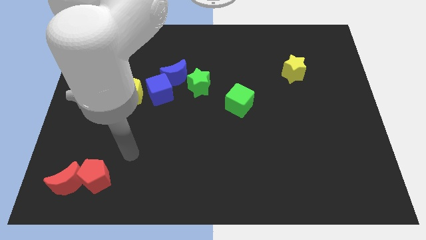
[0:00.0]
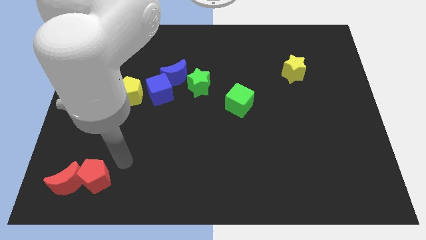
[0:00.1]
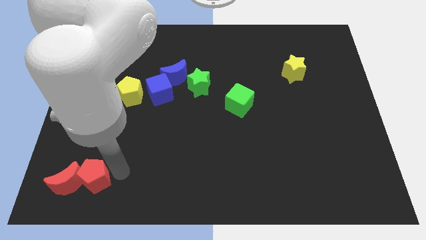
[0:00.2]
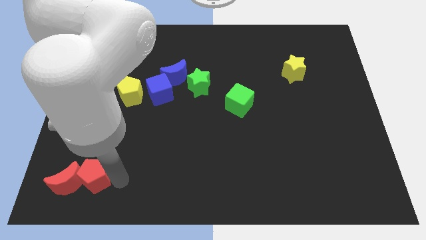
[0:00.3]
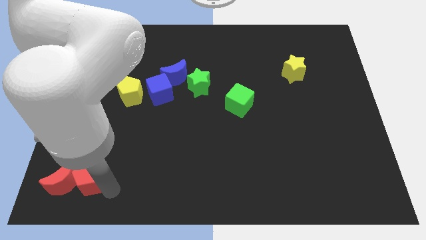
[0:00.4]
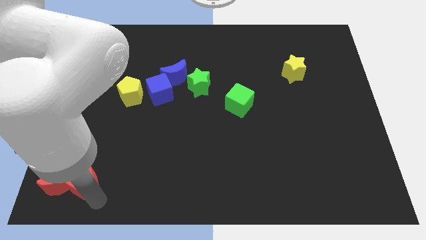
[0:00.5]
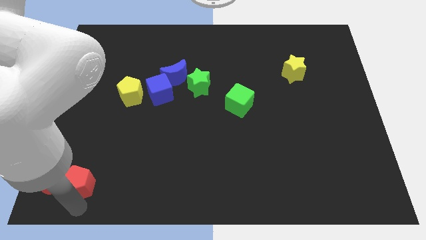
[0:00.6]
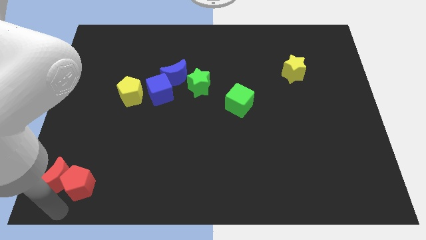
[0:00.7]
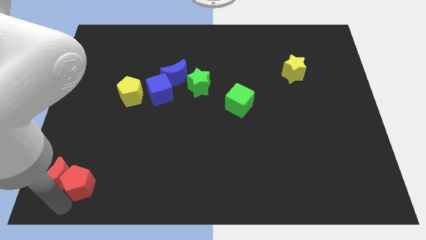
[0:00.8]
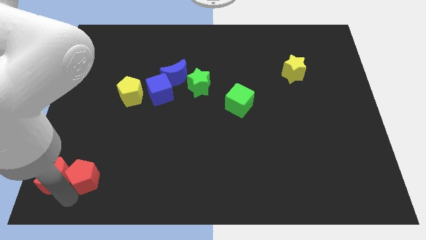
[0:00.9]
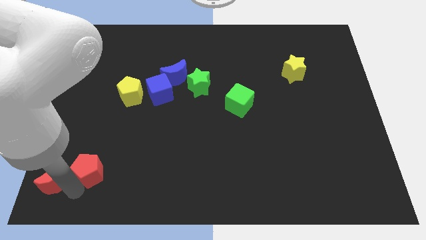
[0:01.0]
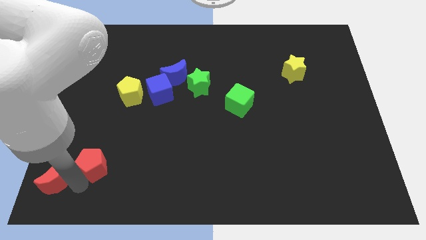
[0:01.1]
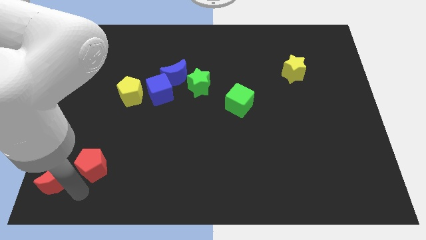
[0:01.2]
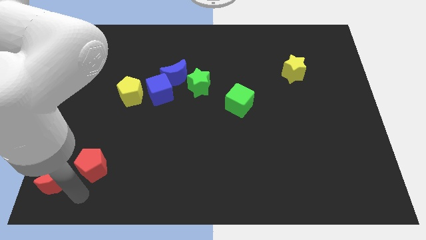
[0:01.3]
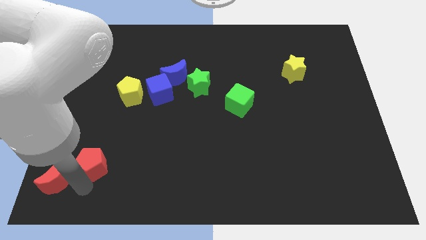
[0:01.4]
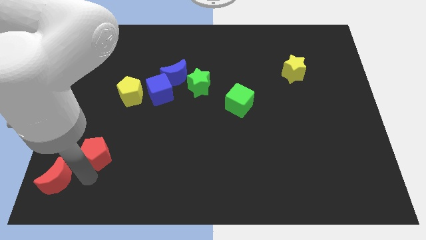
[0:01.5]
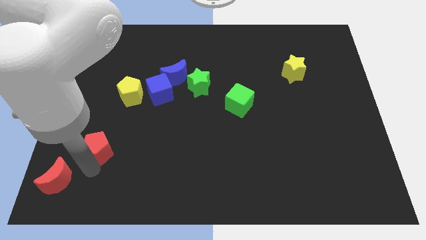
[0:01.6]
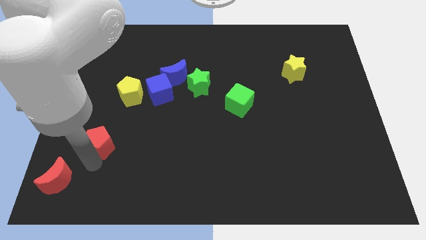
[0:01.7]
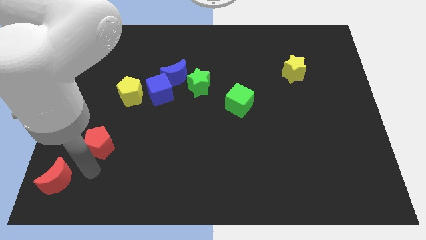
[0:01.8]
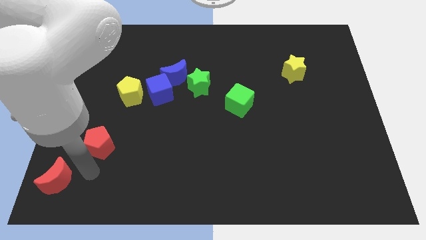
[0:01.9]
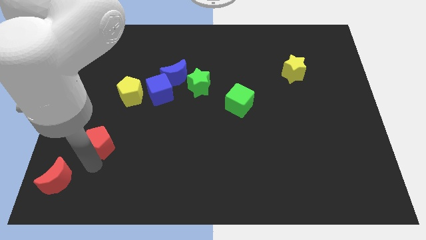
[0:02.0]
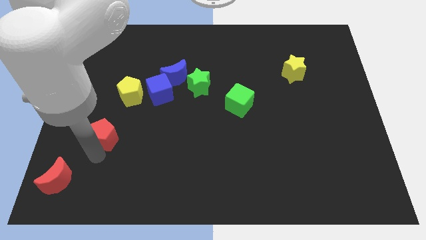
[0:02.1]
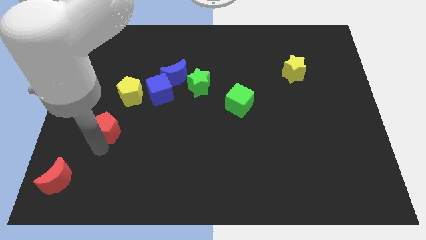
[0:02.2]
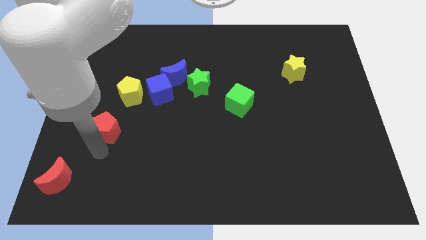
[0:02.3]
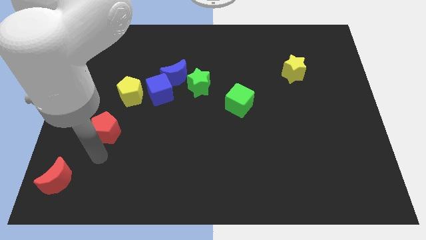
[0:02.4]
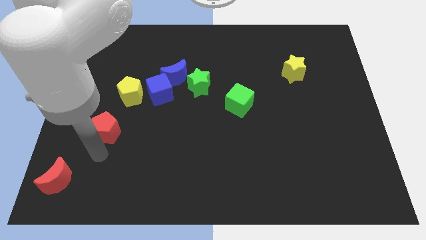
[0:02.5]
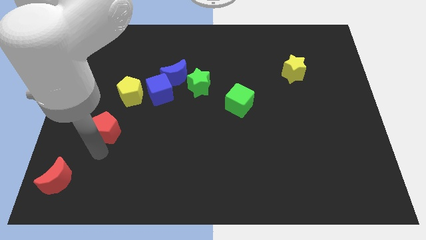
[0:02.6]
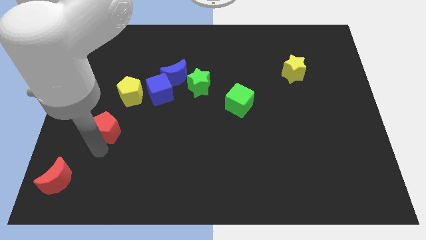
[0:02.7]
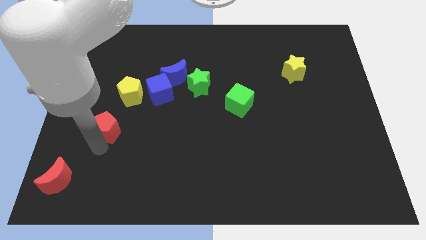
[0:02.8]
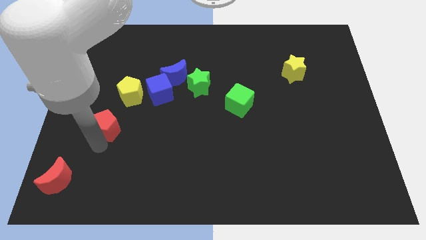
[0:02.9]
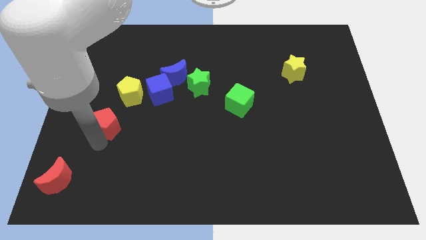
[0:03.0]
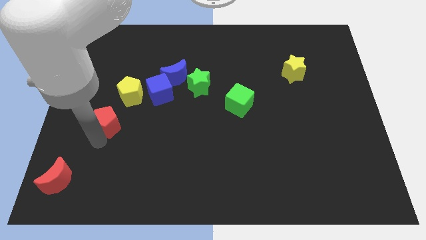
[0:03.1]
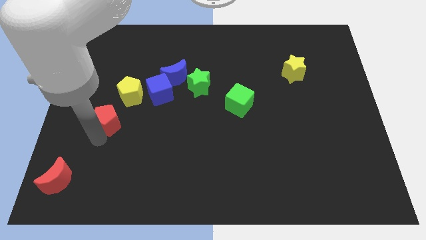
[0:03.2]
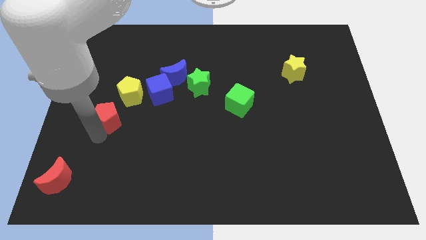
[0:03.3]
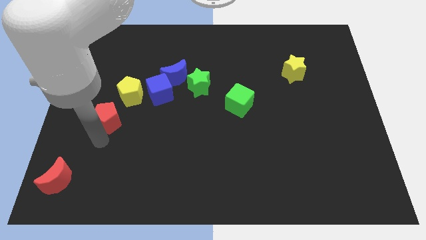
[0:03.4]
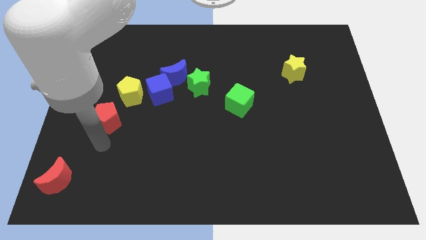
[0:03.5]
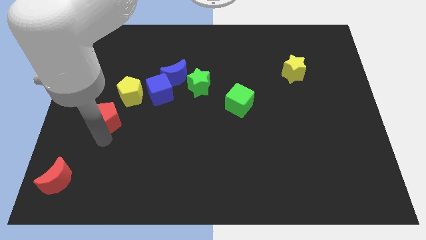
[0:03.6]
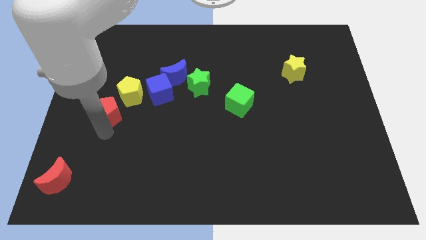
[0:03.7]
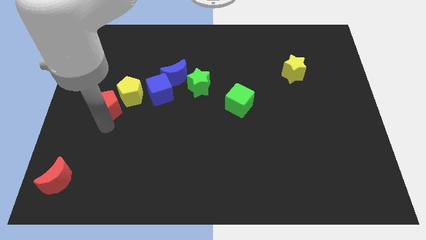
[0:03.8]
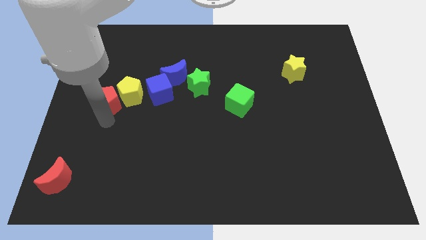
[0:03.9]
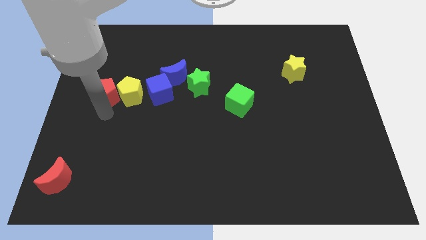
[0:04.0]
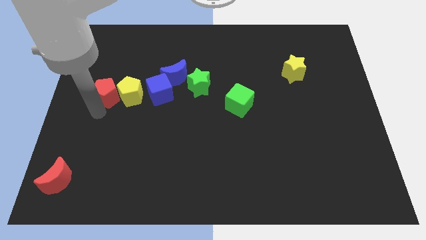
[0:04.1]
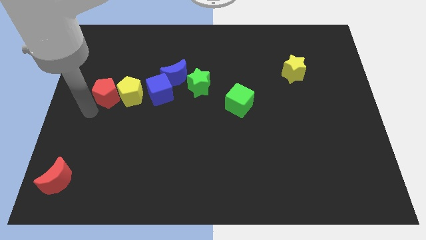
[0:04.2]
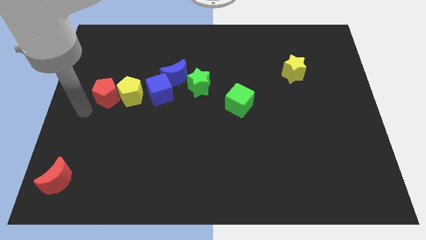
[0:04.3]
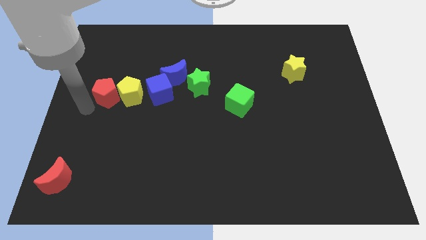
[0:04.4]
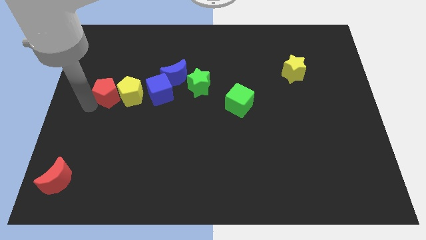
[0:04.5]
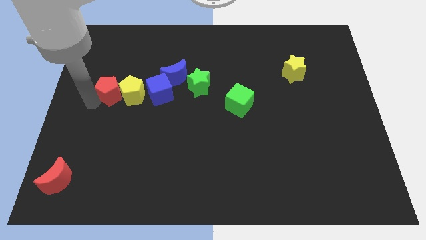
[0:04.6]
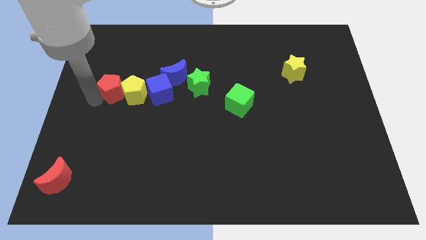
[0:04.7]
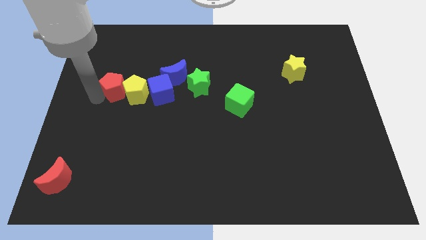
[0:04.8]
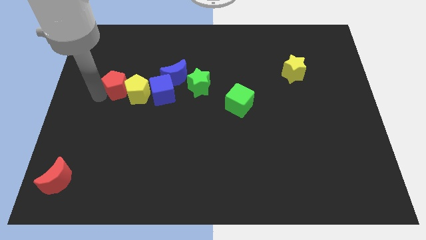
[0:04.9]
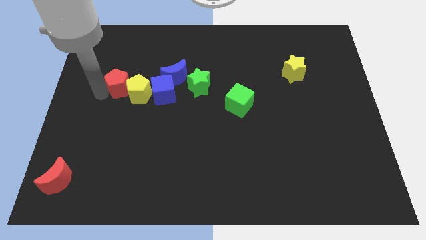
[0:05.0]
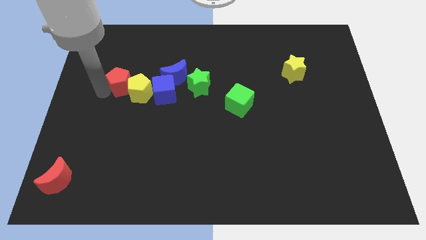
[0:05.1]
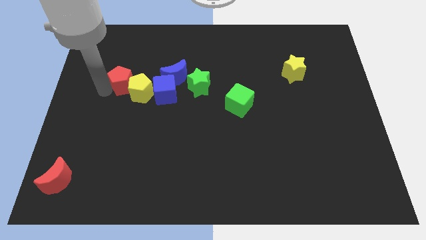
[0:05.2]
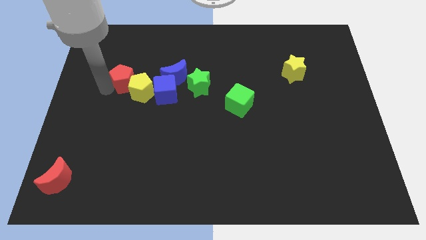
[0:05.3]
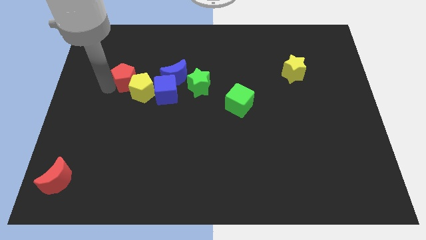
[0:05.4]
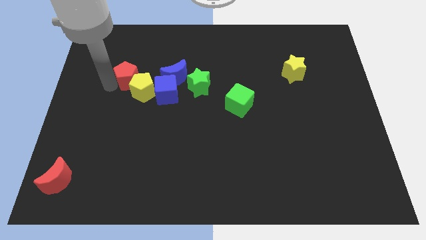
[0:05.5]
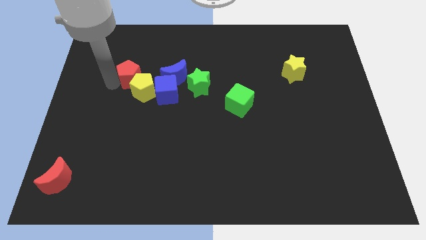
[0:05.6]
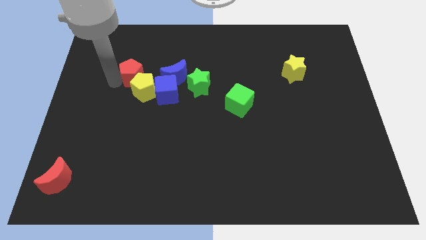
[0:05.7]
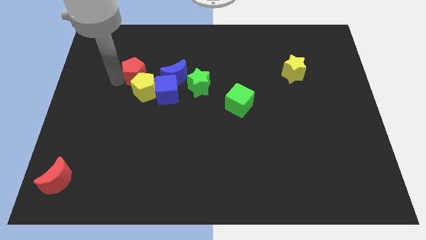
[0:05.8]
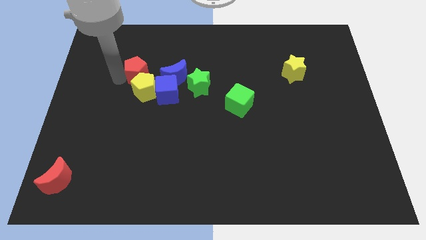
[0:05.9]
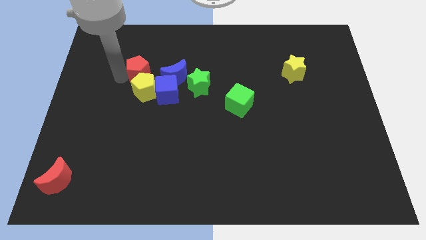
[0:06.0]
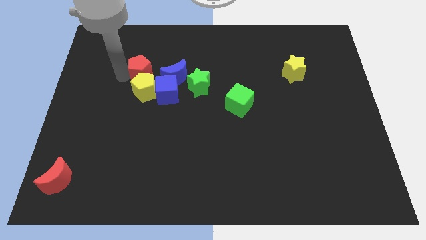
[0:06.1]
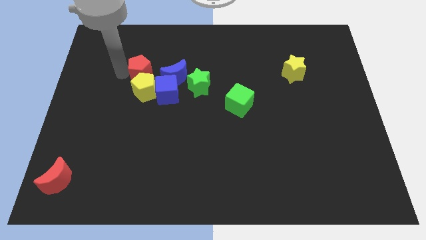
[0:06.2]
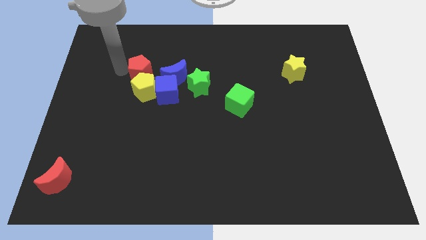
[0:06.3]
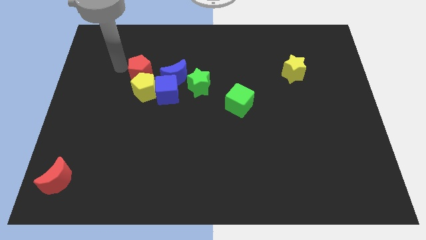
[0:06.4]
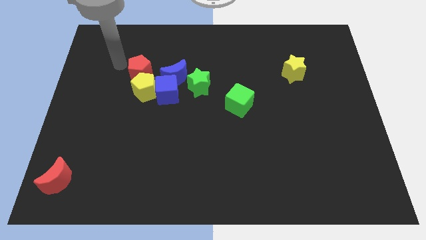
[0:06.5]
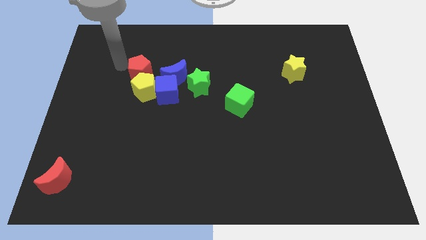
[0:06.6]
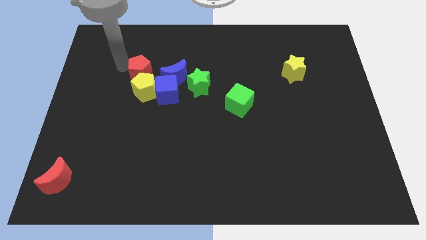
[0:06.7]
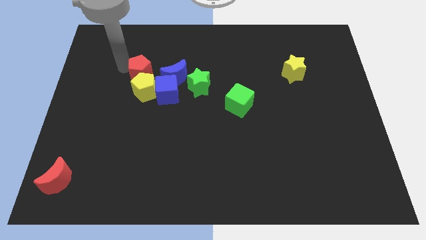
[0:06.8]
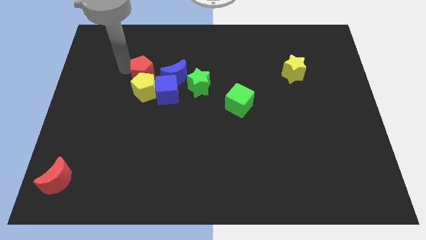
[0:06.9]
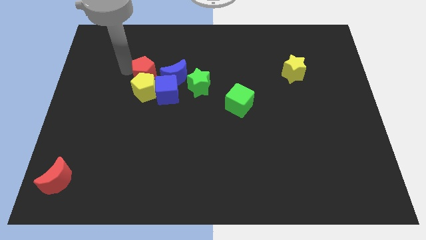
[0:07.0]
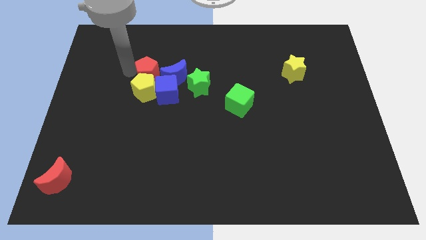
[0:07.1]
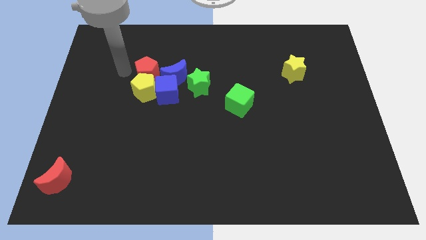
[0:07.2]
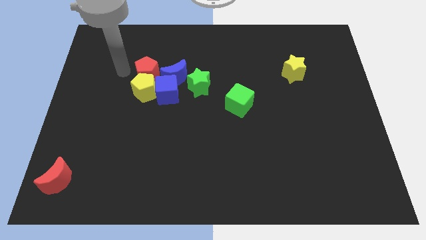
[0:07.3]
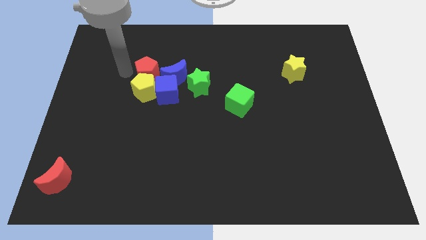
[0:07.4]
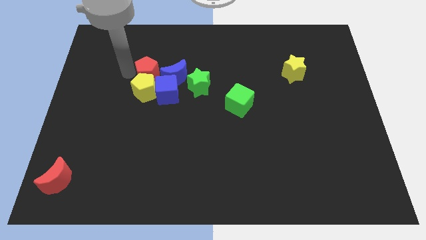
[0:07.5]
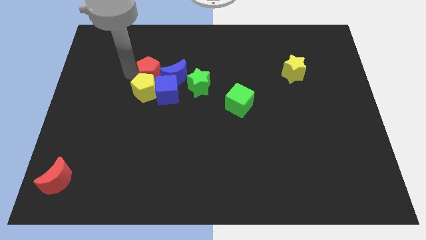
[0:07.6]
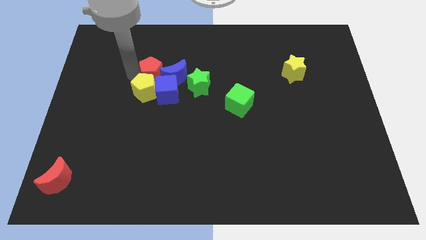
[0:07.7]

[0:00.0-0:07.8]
move the red pentagon to the blue moon
